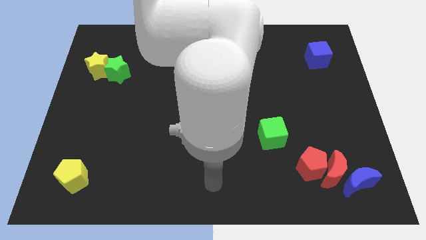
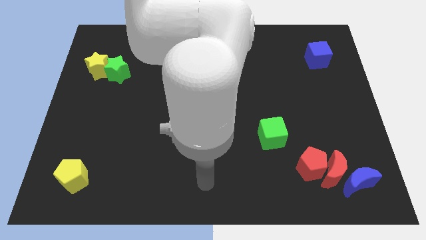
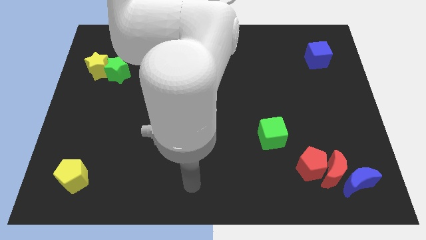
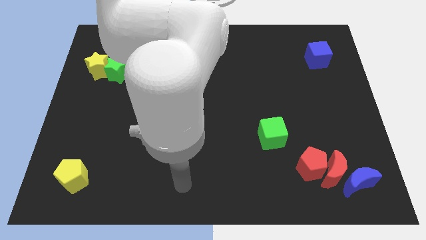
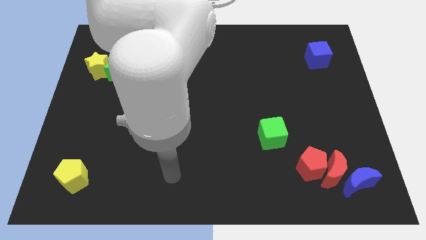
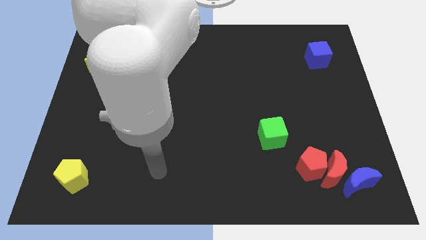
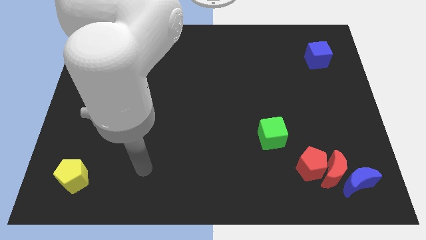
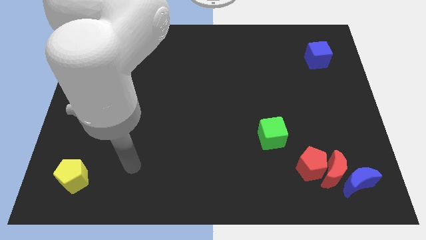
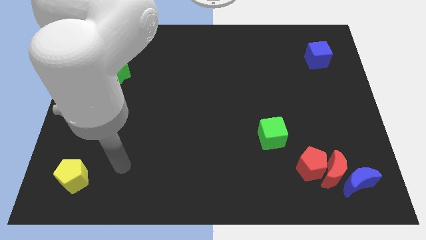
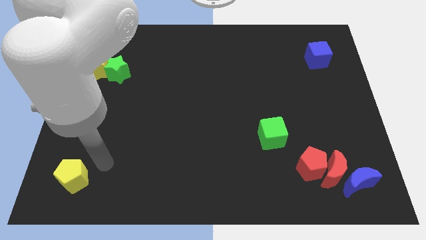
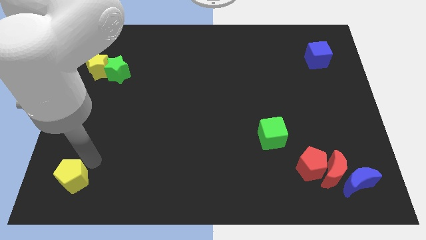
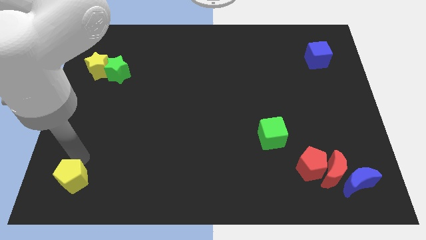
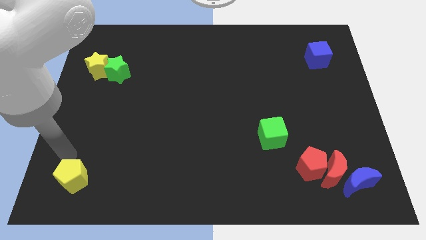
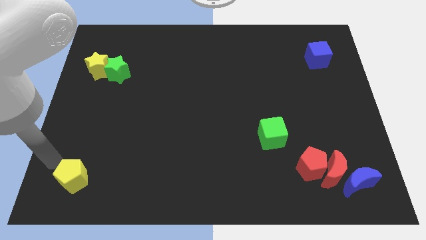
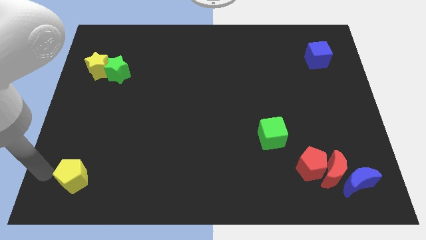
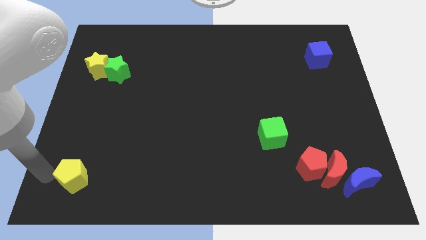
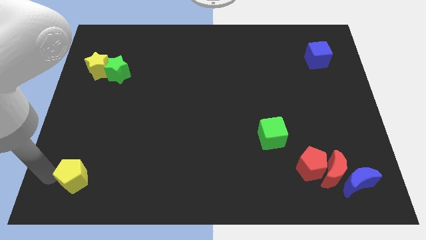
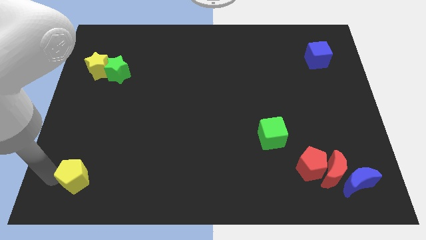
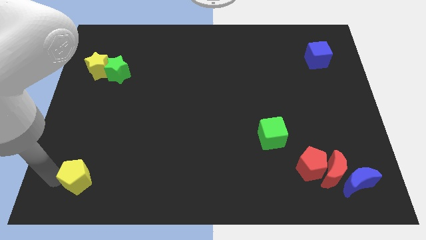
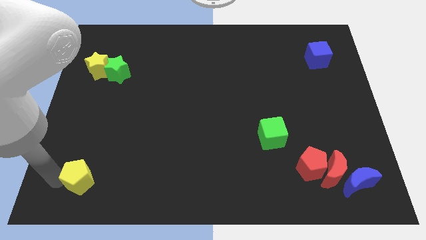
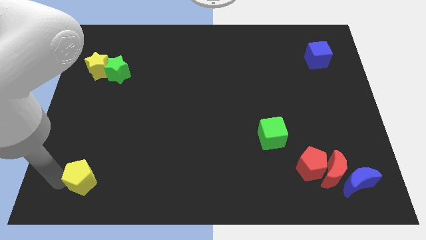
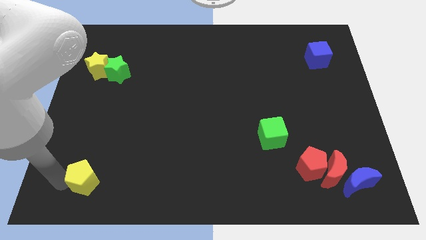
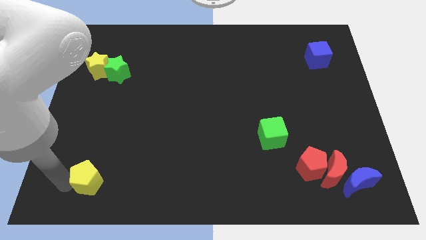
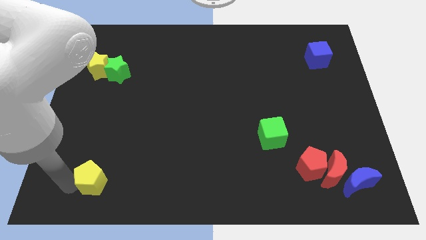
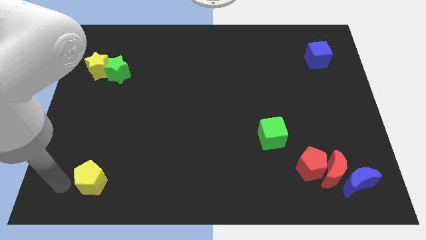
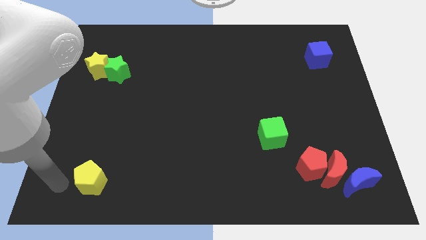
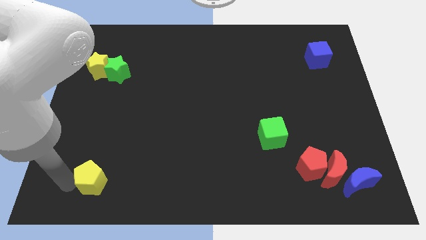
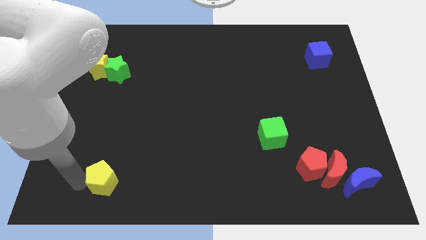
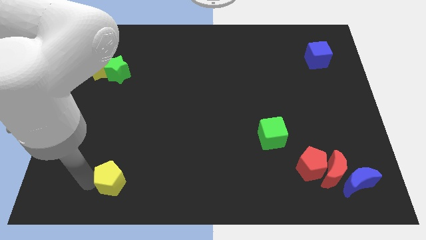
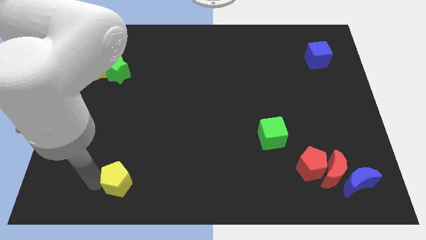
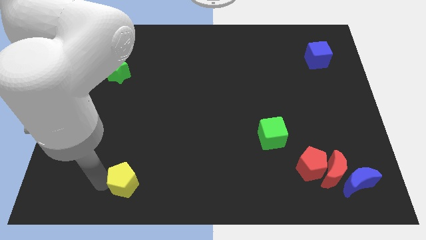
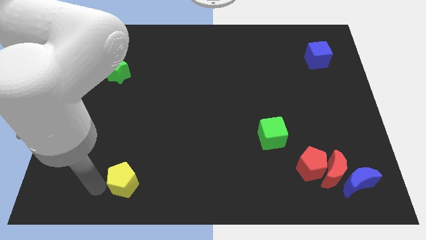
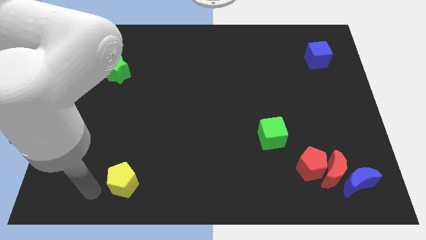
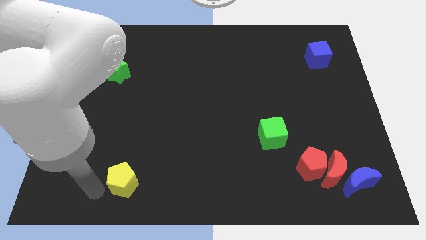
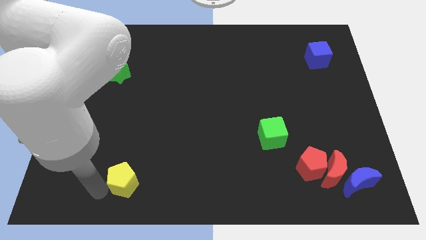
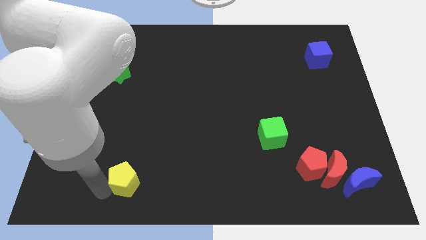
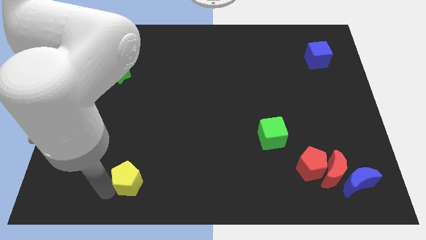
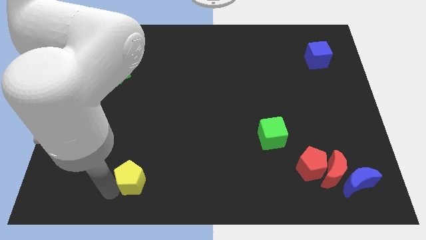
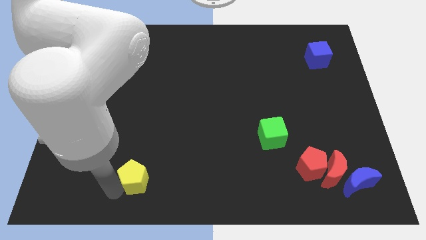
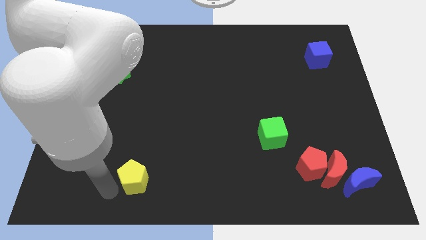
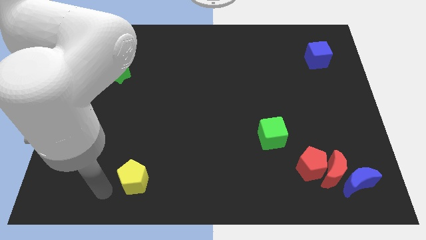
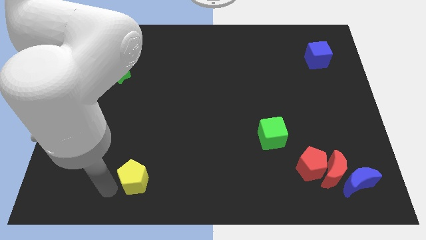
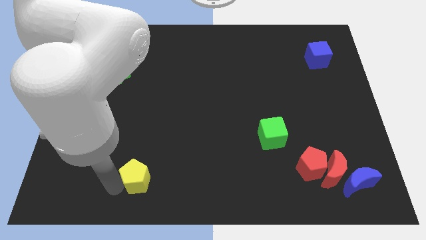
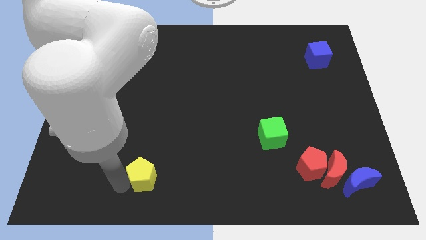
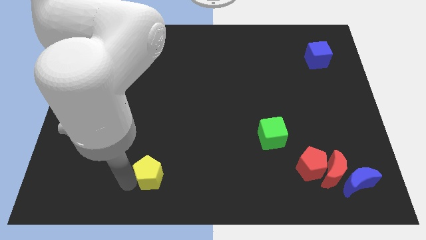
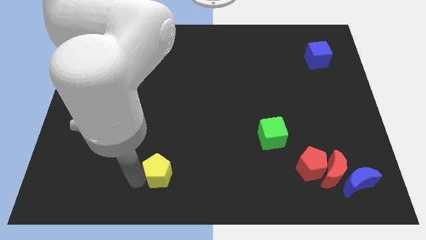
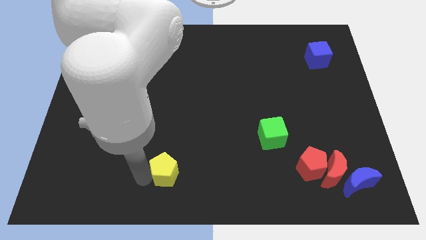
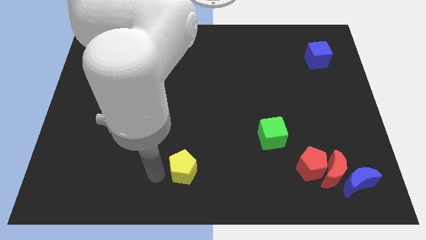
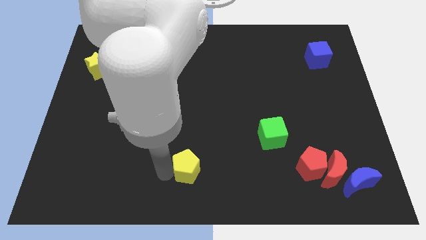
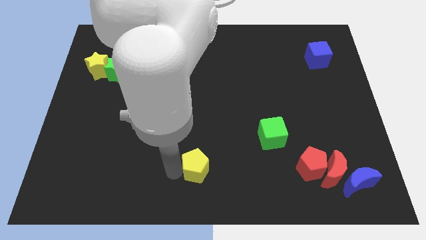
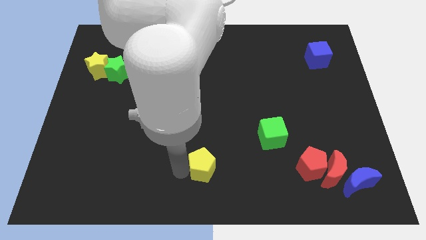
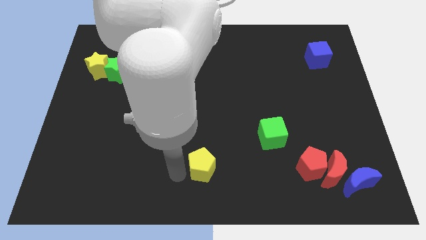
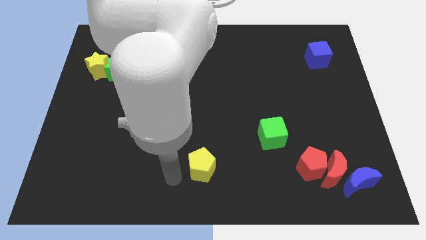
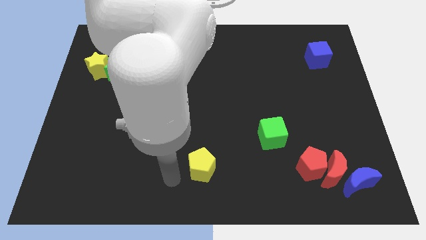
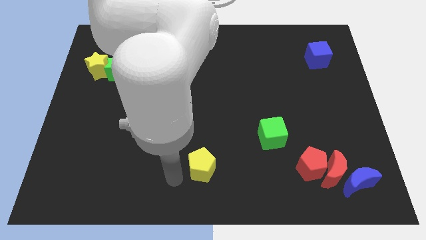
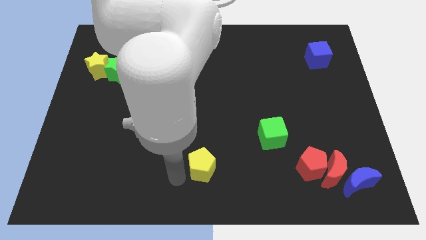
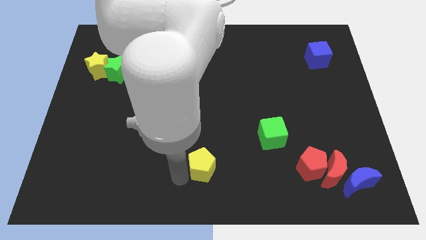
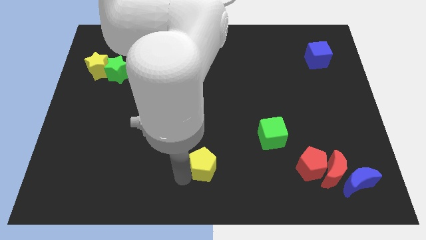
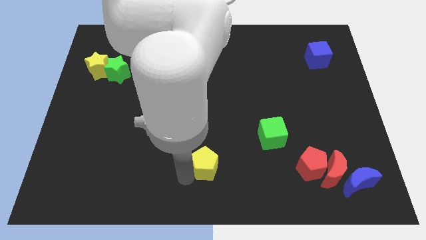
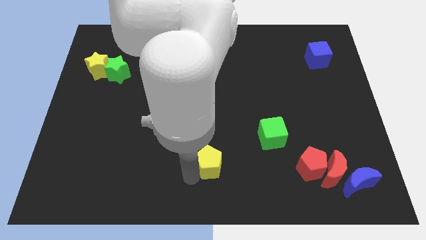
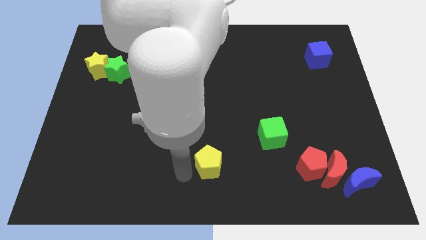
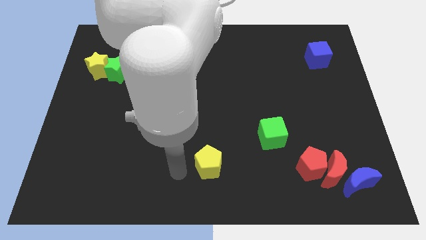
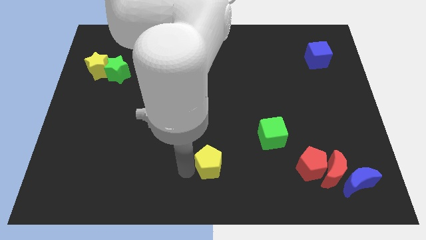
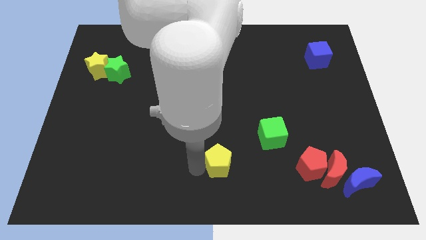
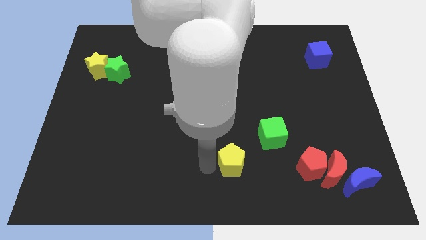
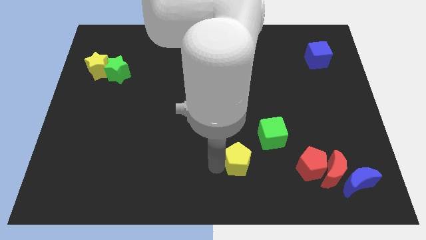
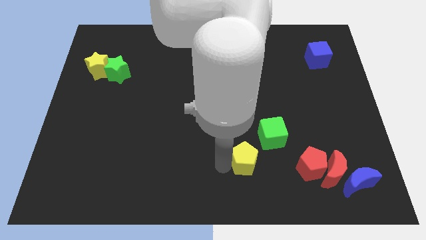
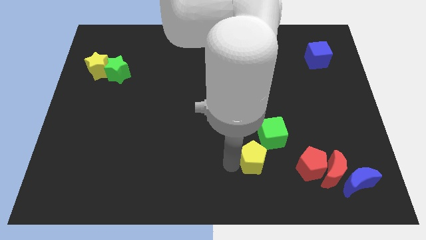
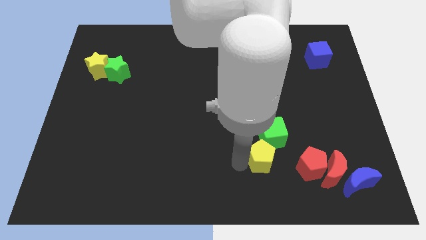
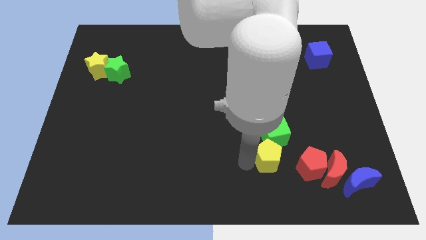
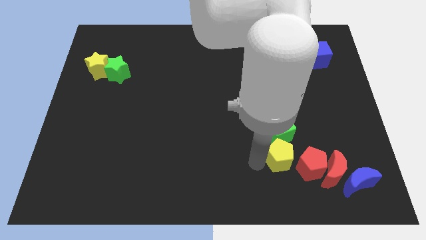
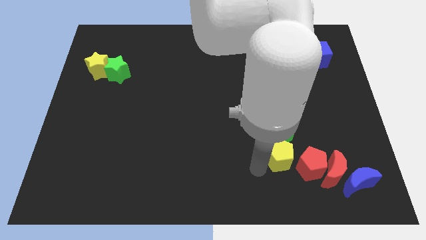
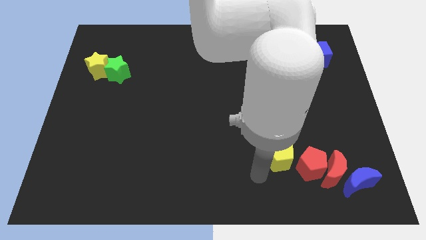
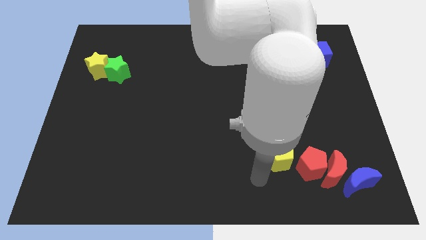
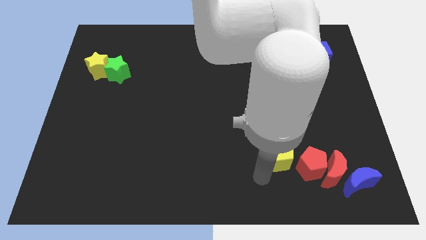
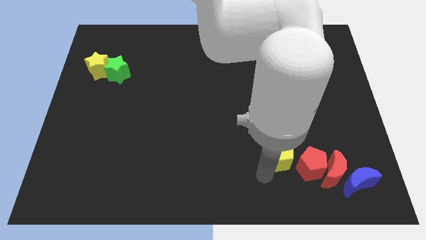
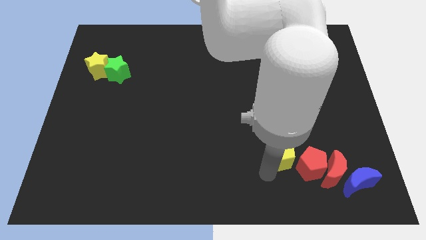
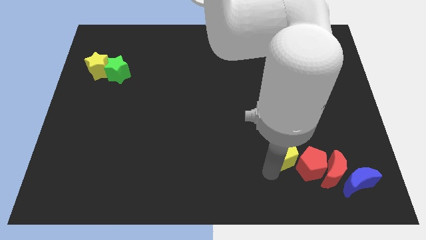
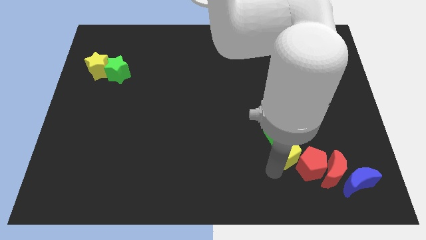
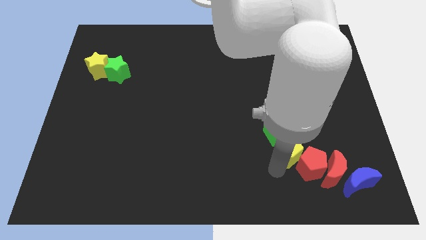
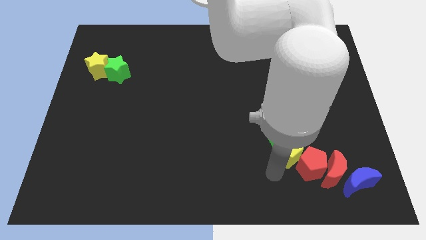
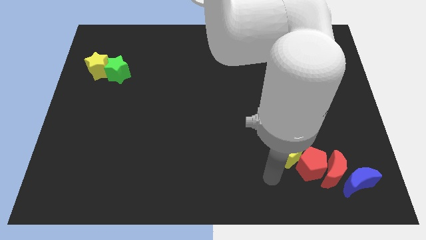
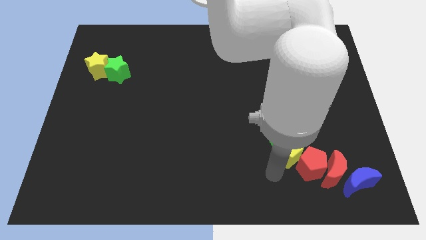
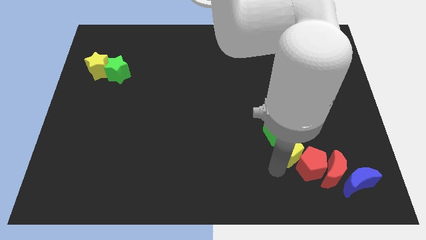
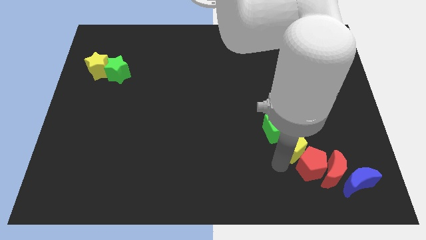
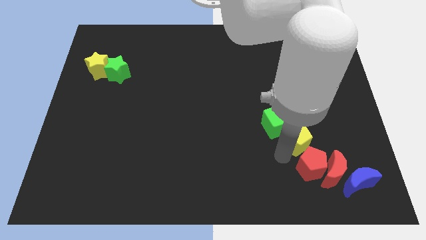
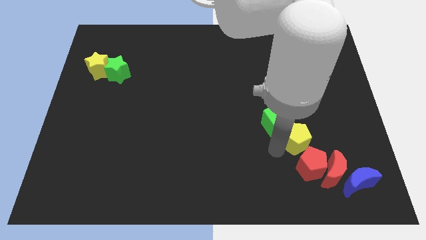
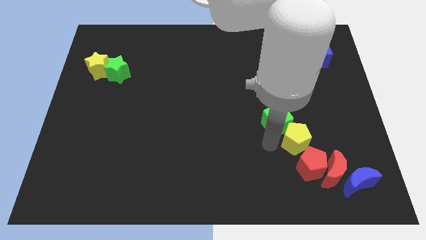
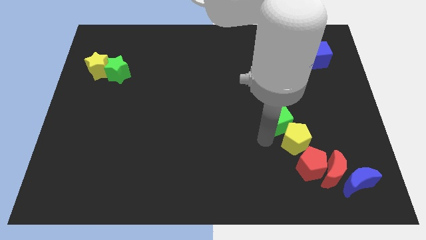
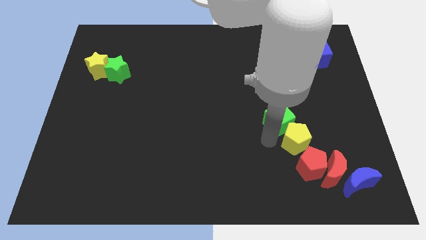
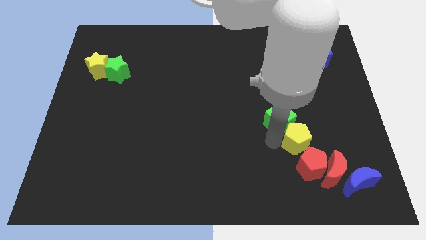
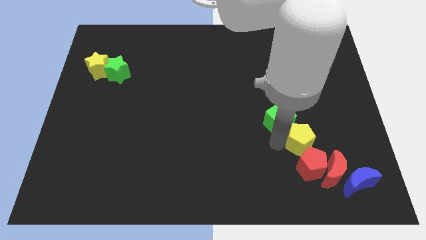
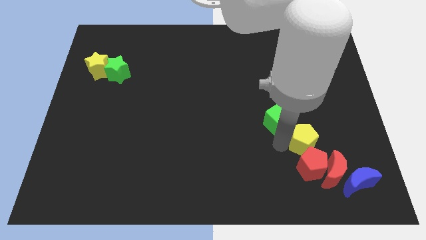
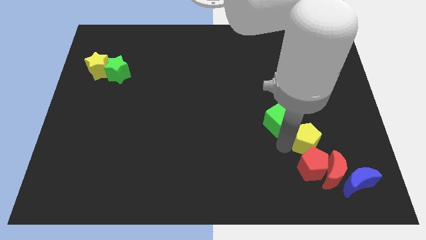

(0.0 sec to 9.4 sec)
put the yellow pentagon to the top right of the red pentagon
